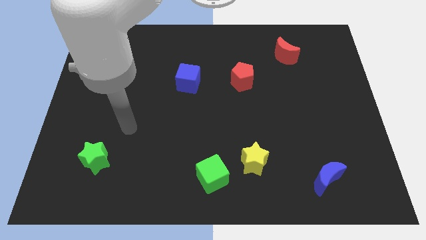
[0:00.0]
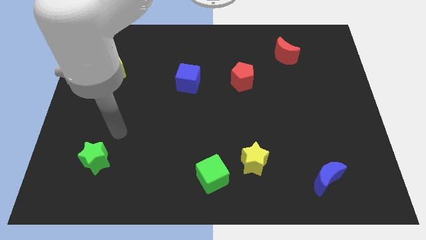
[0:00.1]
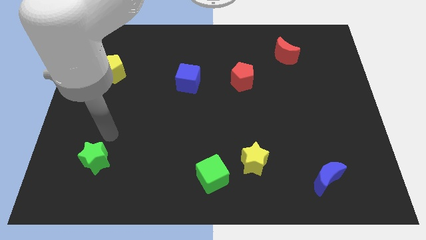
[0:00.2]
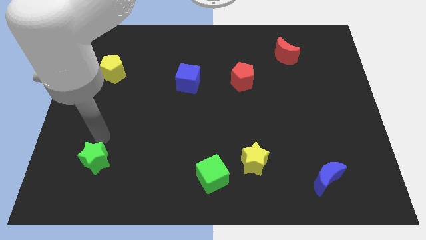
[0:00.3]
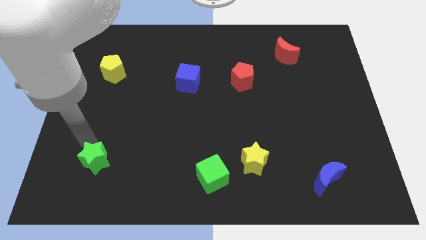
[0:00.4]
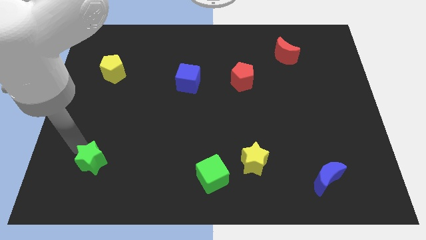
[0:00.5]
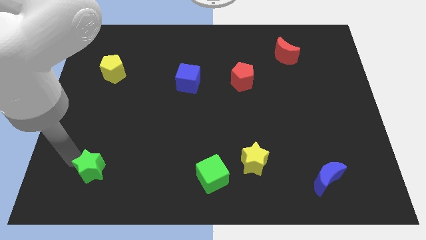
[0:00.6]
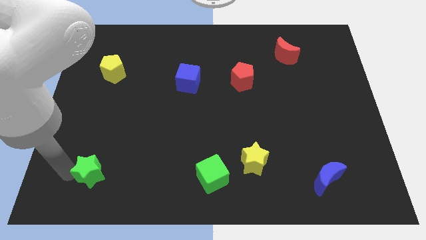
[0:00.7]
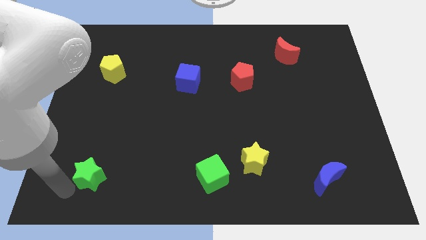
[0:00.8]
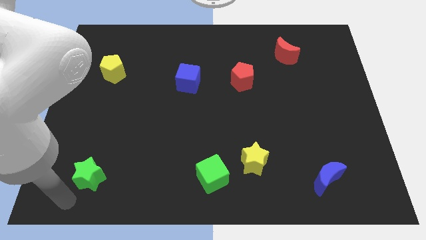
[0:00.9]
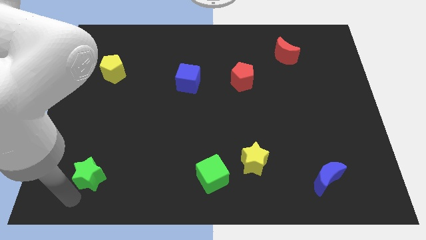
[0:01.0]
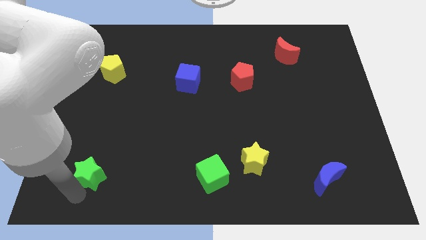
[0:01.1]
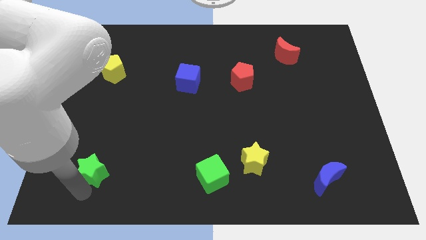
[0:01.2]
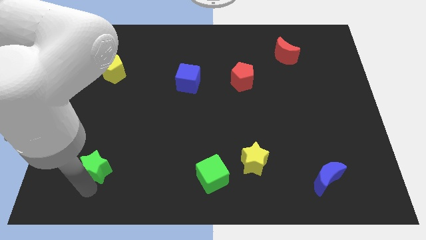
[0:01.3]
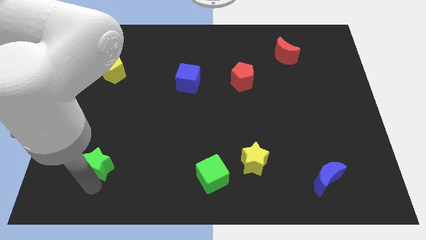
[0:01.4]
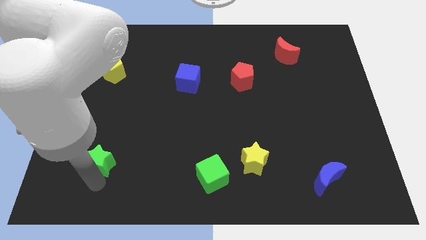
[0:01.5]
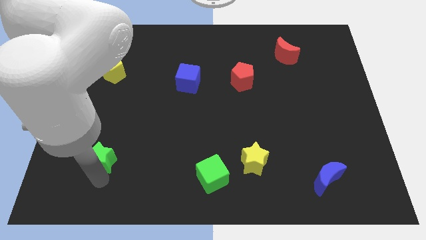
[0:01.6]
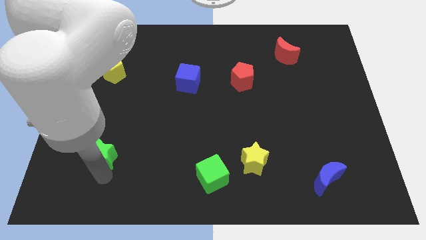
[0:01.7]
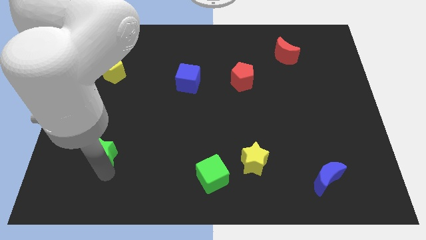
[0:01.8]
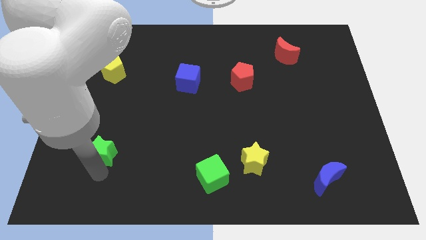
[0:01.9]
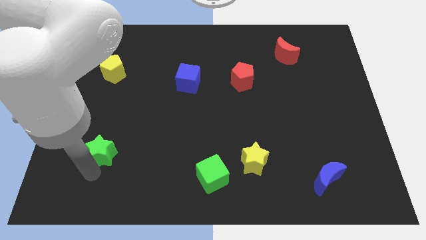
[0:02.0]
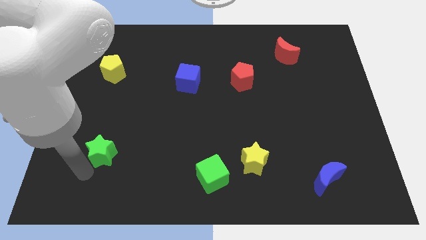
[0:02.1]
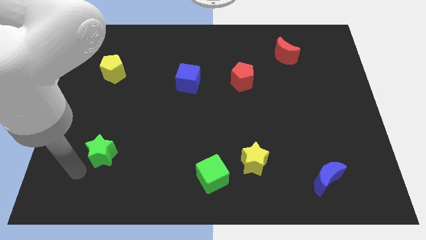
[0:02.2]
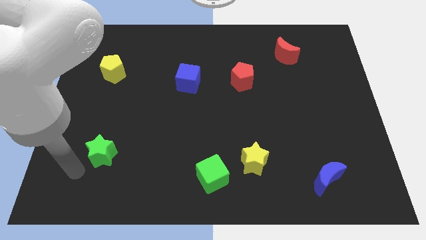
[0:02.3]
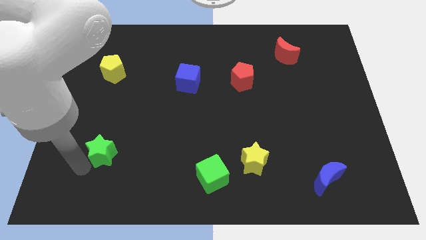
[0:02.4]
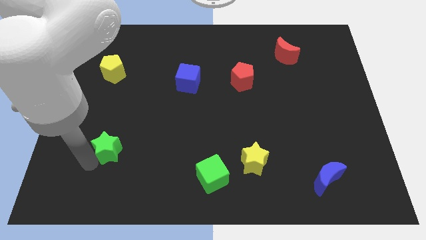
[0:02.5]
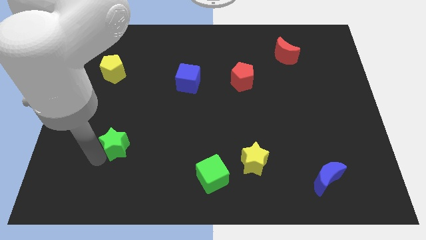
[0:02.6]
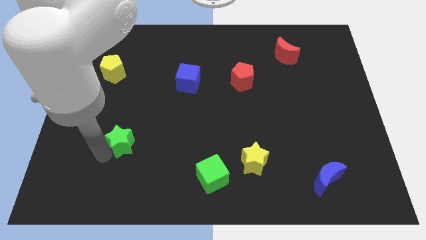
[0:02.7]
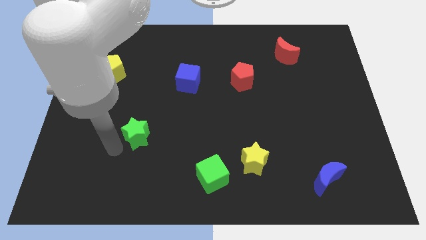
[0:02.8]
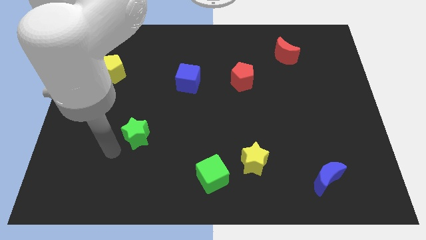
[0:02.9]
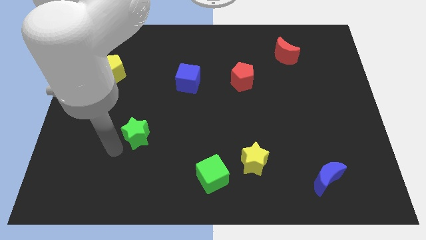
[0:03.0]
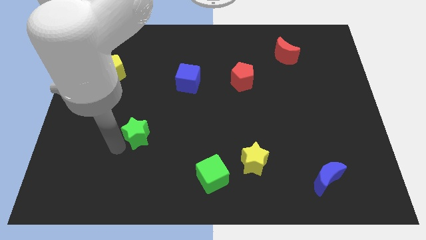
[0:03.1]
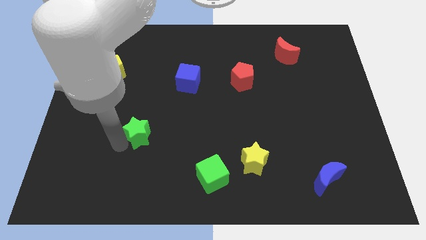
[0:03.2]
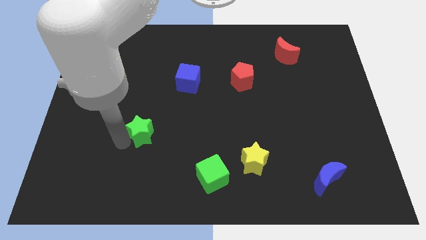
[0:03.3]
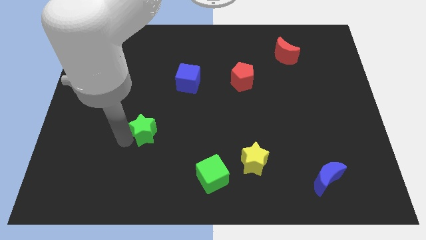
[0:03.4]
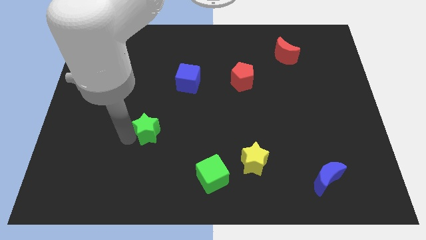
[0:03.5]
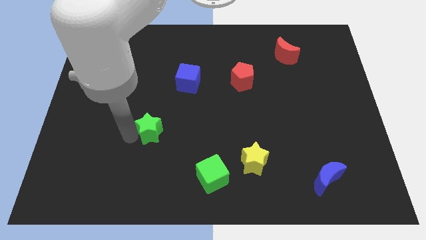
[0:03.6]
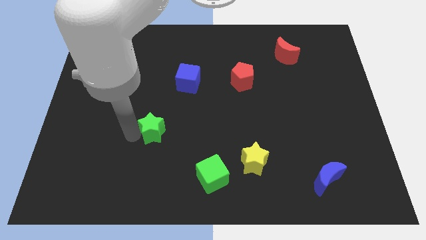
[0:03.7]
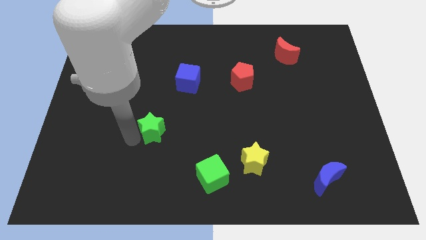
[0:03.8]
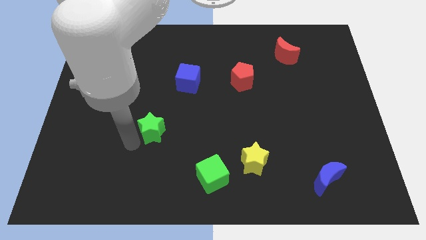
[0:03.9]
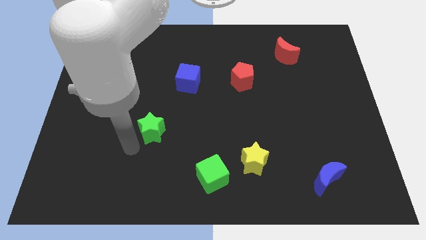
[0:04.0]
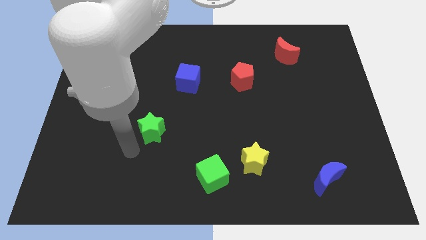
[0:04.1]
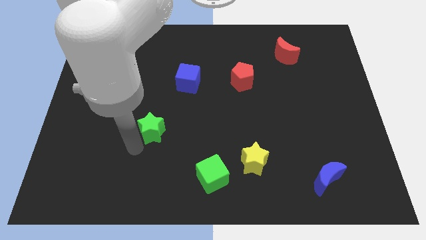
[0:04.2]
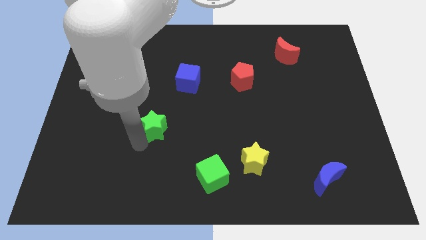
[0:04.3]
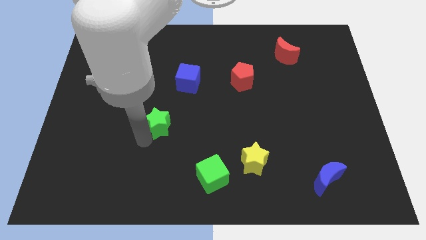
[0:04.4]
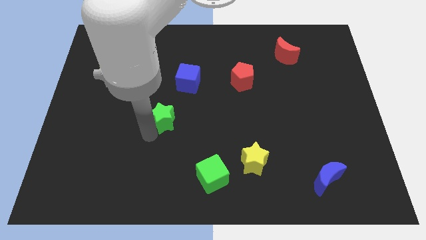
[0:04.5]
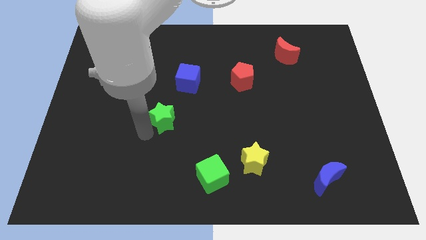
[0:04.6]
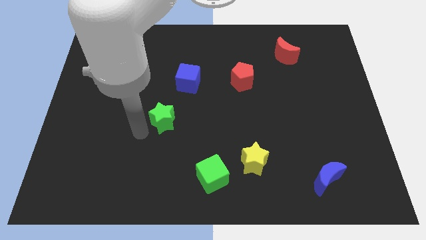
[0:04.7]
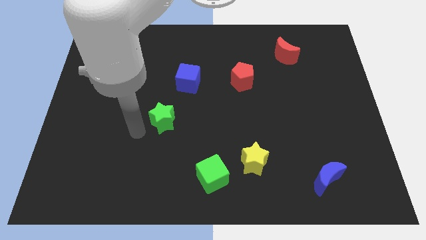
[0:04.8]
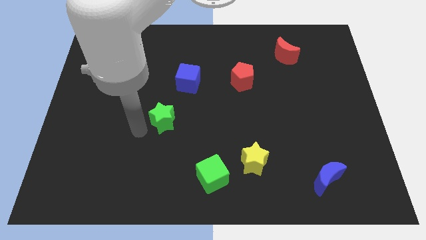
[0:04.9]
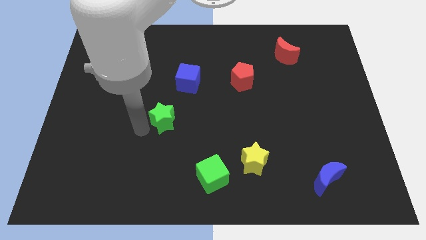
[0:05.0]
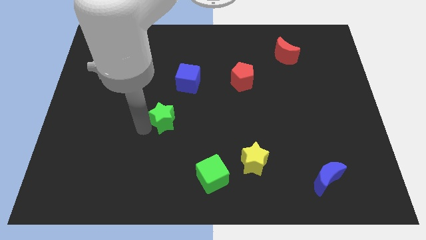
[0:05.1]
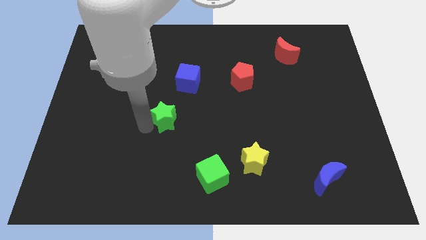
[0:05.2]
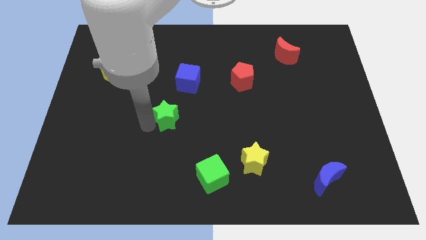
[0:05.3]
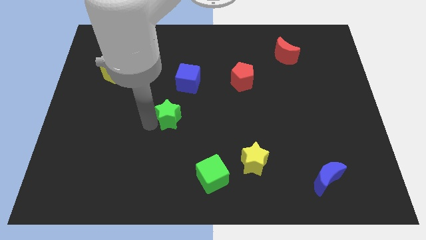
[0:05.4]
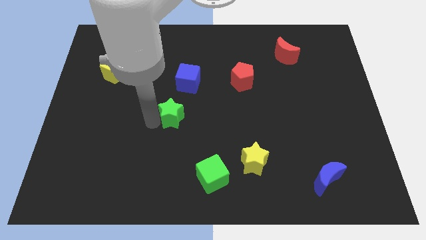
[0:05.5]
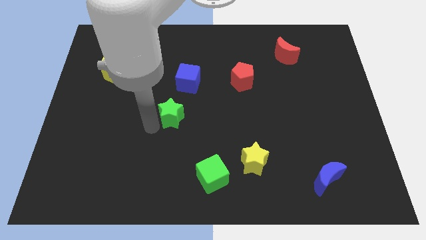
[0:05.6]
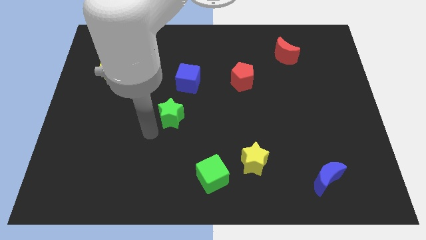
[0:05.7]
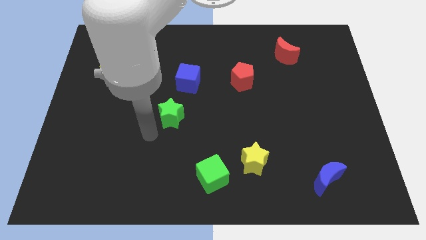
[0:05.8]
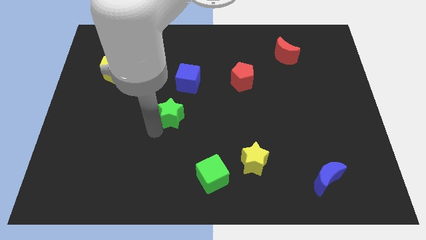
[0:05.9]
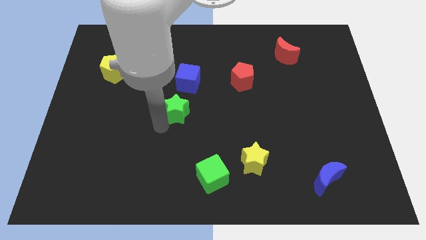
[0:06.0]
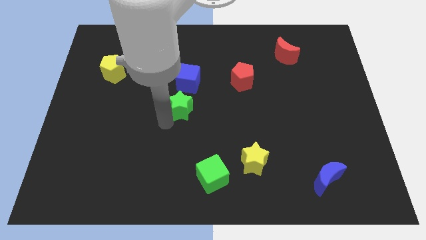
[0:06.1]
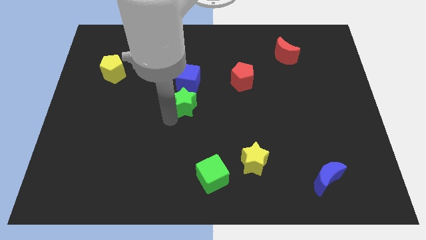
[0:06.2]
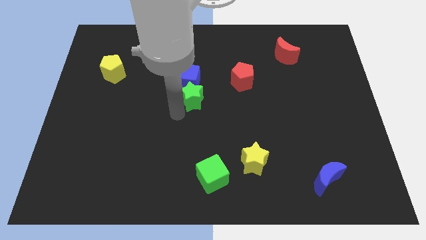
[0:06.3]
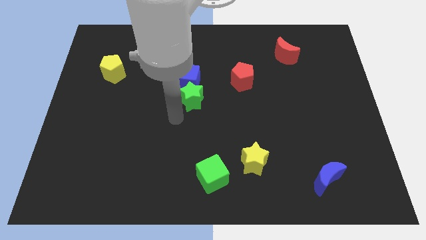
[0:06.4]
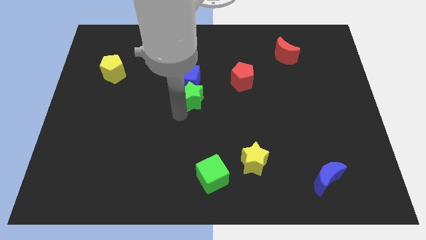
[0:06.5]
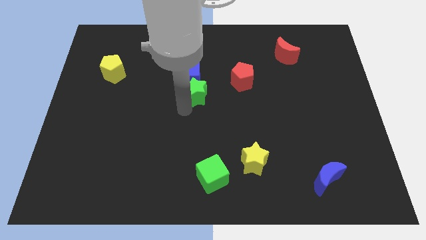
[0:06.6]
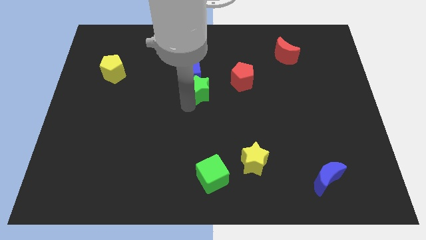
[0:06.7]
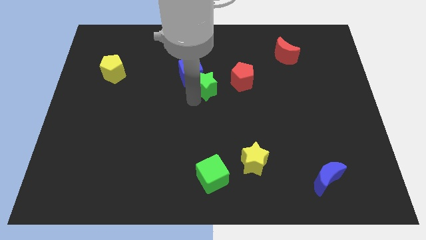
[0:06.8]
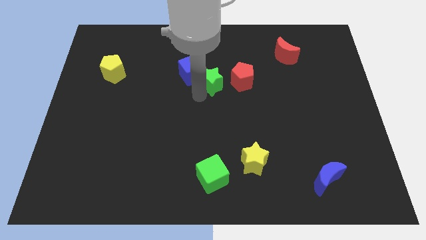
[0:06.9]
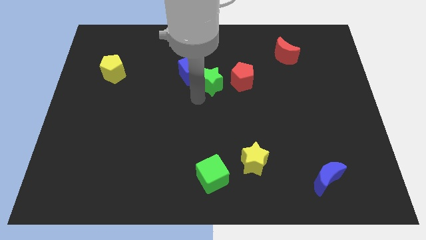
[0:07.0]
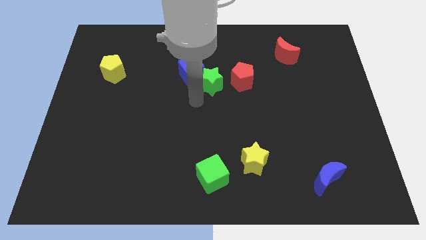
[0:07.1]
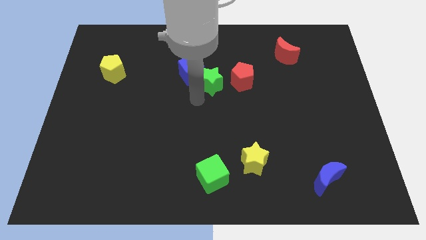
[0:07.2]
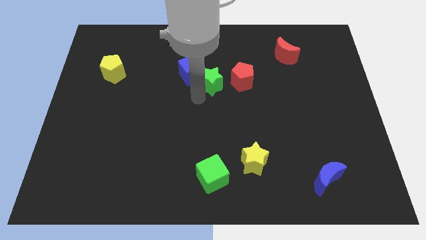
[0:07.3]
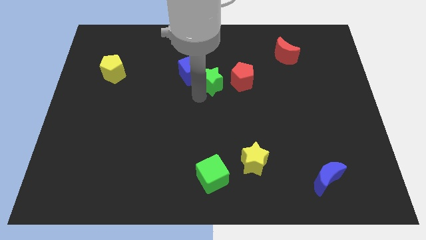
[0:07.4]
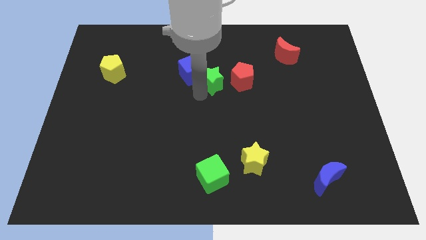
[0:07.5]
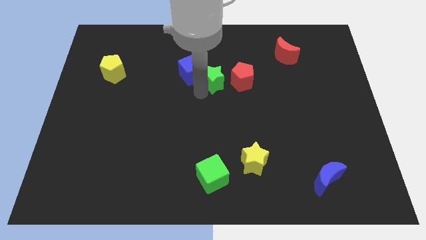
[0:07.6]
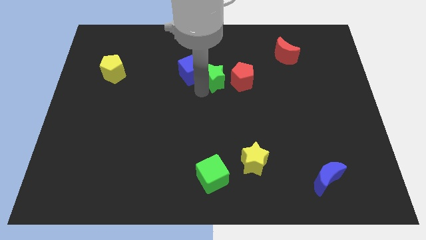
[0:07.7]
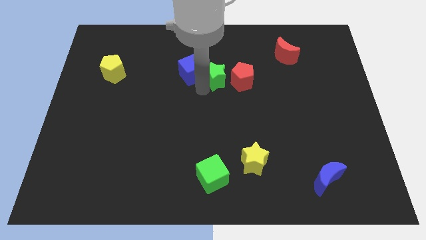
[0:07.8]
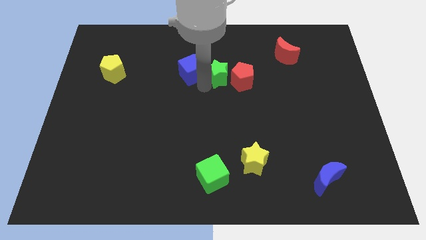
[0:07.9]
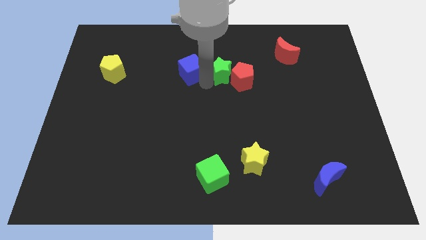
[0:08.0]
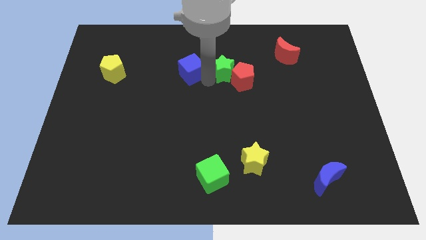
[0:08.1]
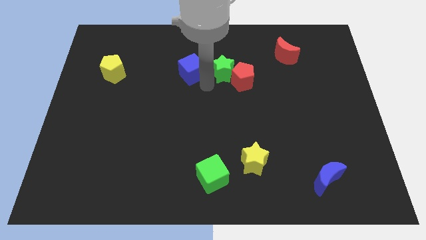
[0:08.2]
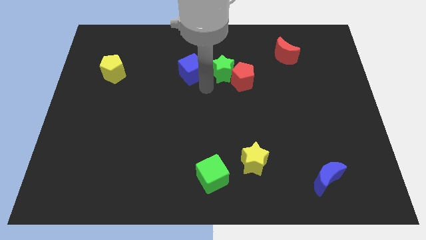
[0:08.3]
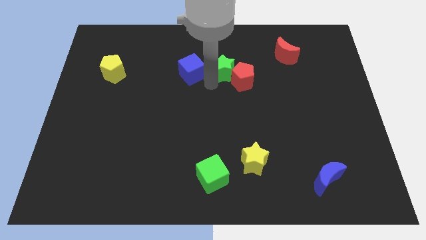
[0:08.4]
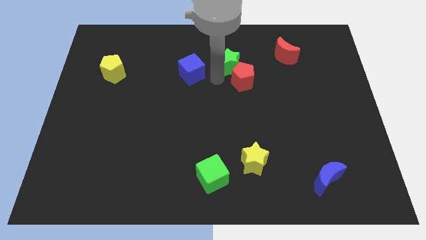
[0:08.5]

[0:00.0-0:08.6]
put the green star left of the red moon
